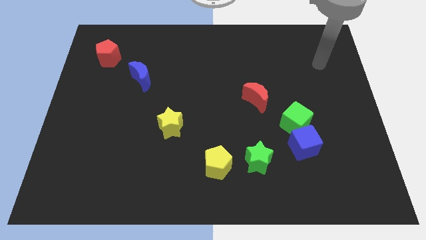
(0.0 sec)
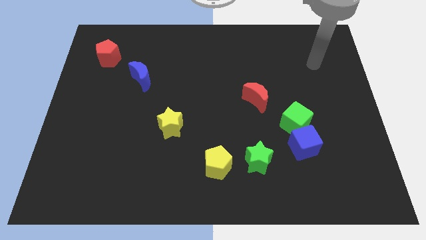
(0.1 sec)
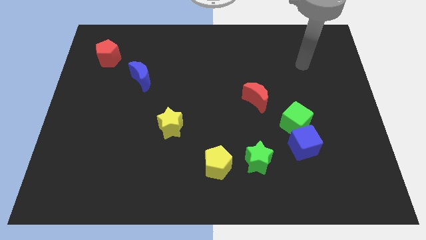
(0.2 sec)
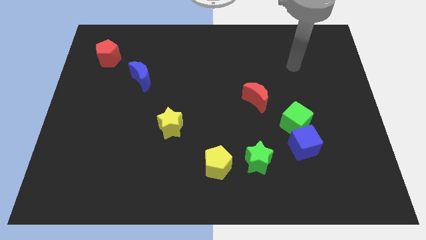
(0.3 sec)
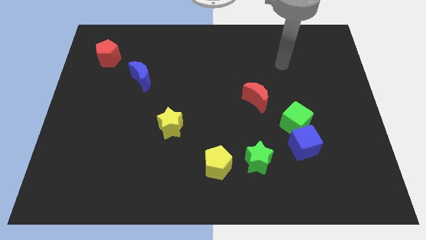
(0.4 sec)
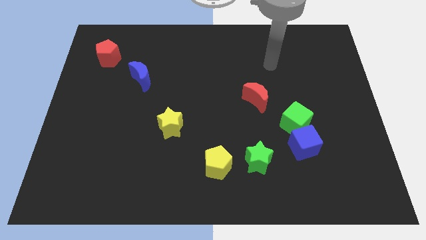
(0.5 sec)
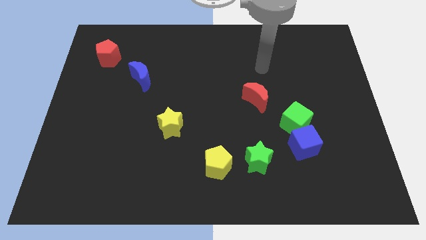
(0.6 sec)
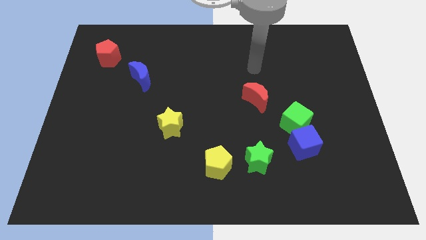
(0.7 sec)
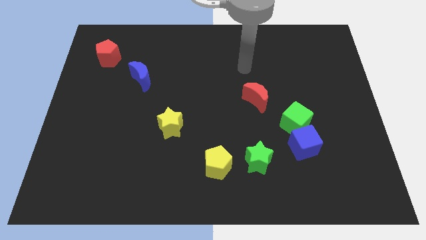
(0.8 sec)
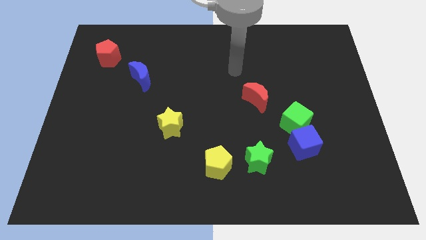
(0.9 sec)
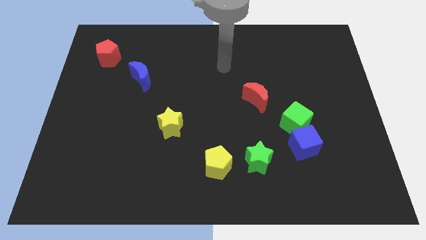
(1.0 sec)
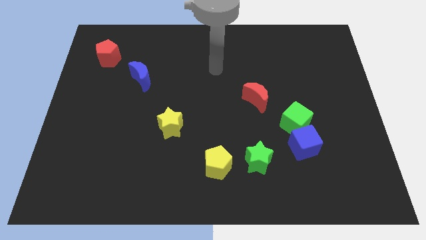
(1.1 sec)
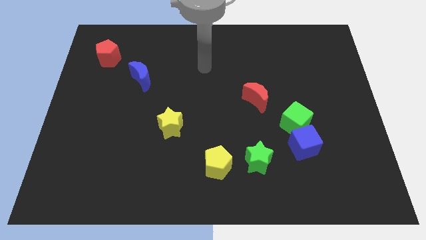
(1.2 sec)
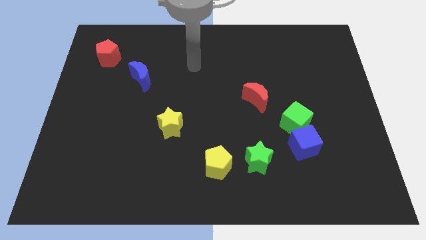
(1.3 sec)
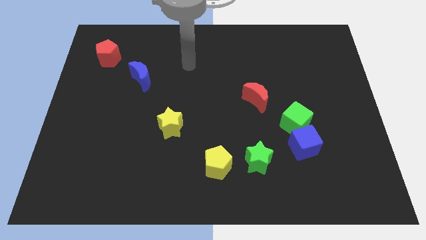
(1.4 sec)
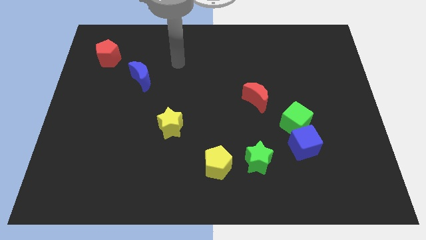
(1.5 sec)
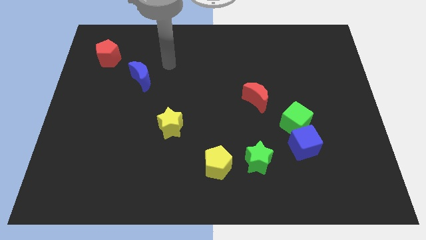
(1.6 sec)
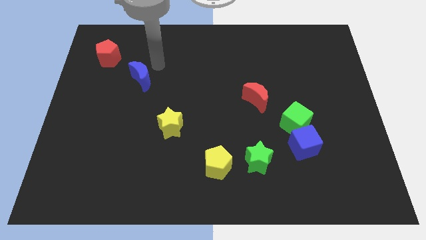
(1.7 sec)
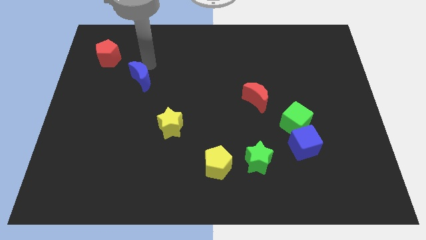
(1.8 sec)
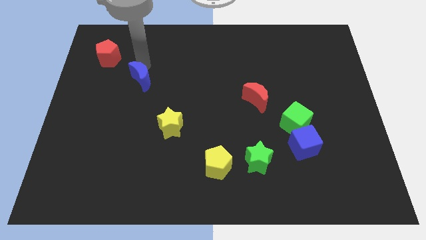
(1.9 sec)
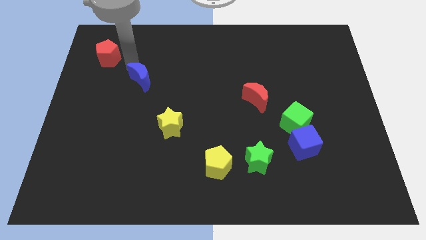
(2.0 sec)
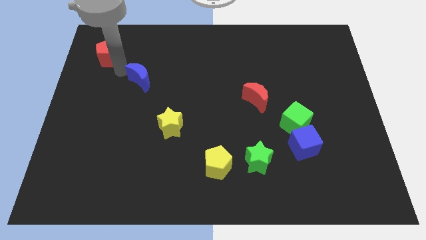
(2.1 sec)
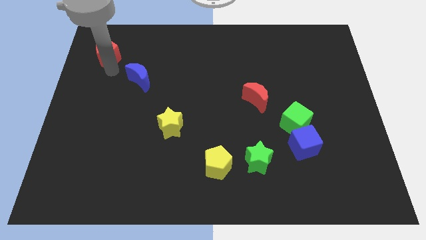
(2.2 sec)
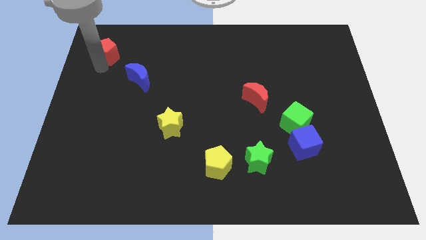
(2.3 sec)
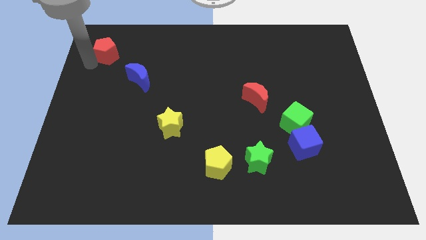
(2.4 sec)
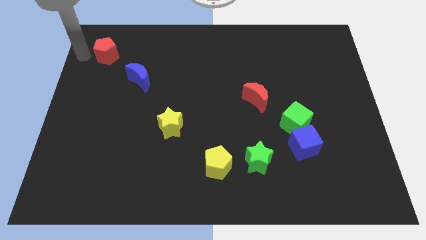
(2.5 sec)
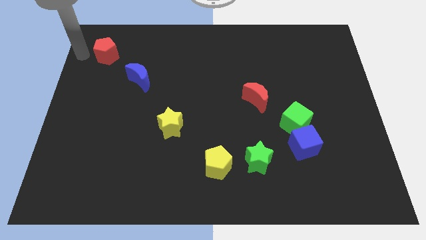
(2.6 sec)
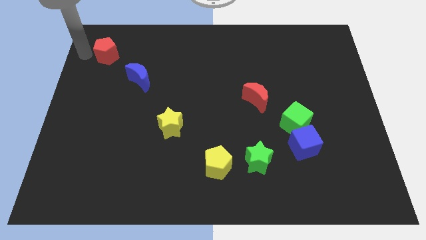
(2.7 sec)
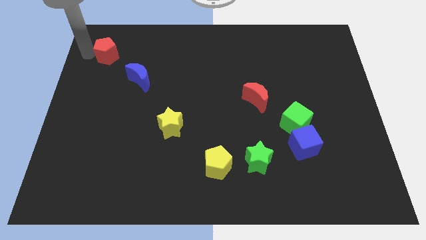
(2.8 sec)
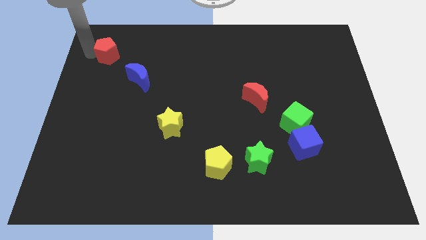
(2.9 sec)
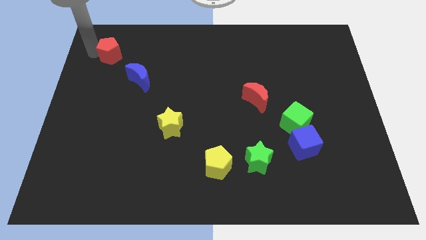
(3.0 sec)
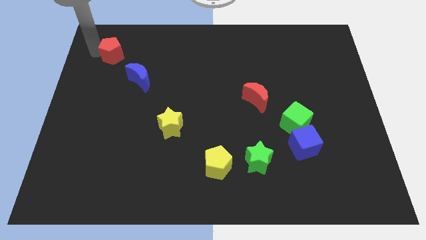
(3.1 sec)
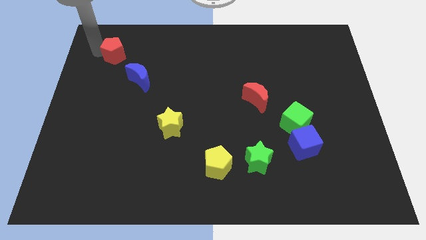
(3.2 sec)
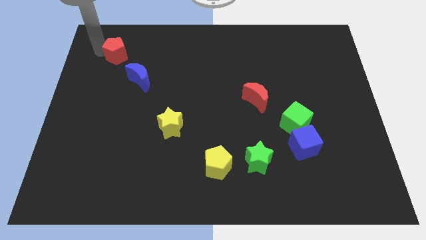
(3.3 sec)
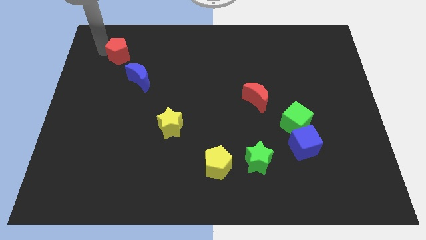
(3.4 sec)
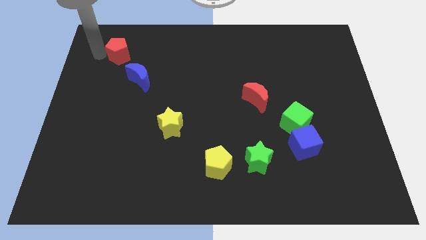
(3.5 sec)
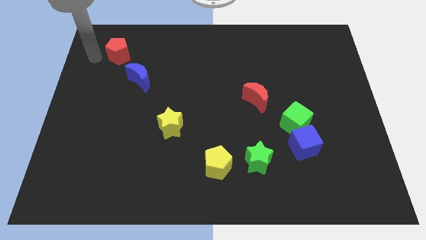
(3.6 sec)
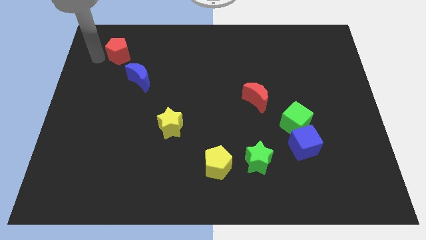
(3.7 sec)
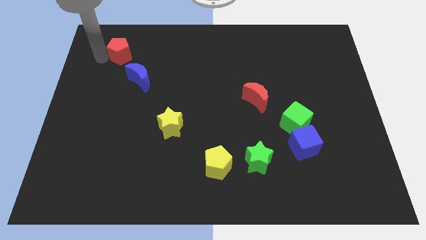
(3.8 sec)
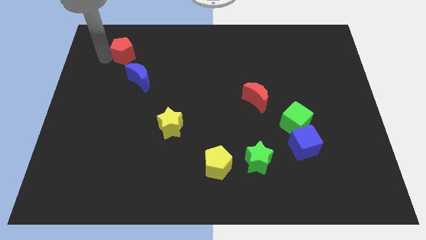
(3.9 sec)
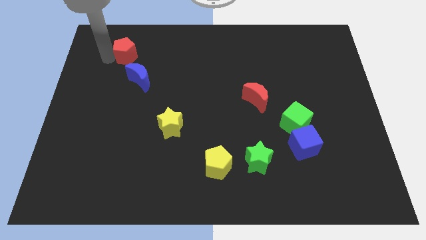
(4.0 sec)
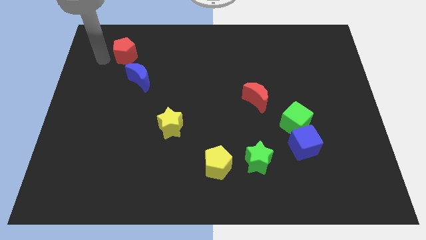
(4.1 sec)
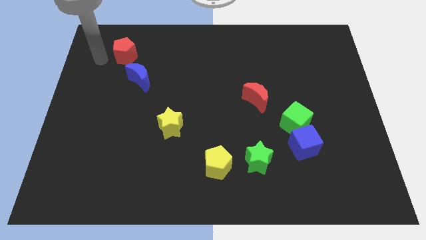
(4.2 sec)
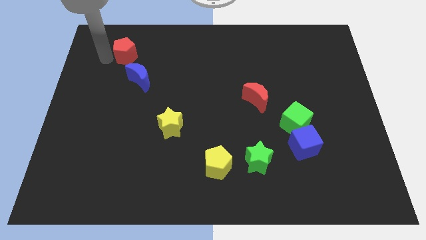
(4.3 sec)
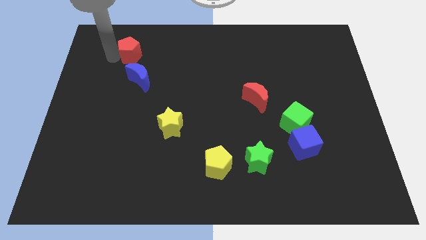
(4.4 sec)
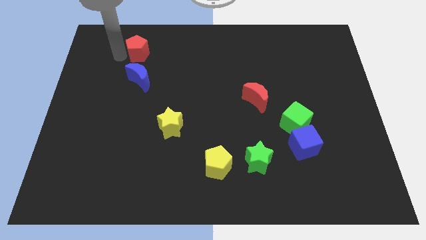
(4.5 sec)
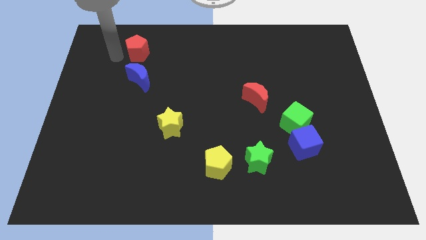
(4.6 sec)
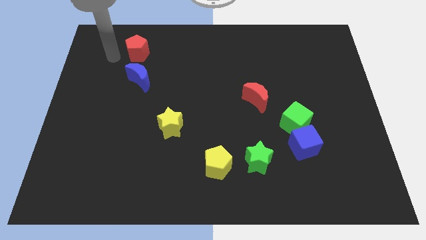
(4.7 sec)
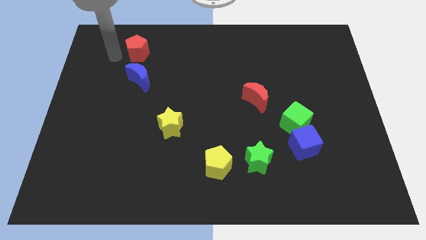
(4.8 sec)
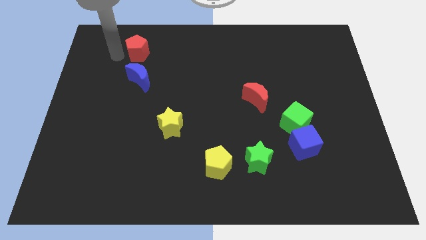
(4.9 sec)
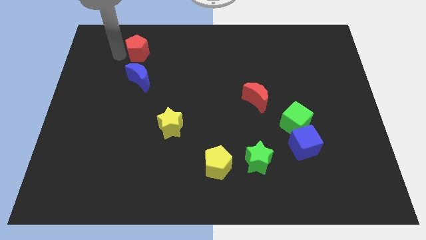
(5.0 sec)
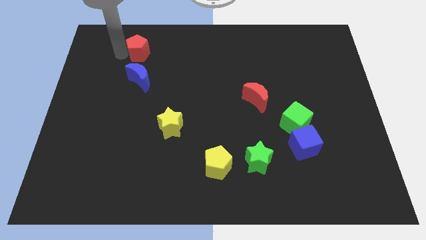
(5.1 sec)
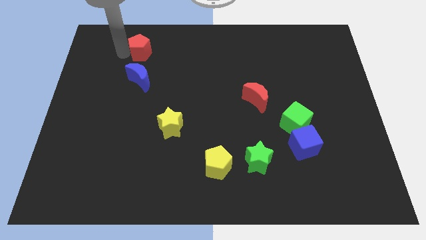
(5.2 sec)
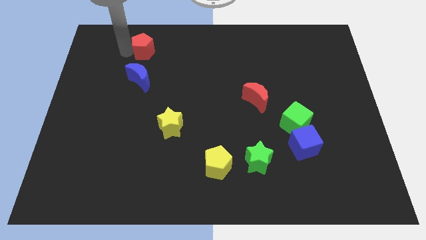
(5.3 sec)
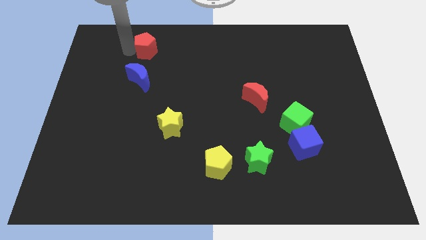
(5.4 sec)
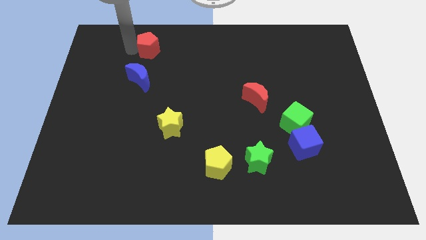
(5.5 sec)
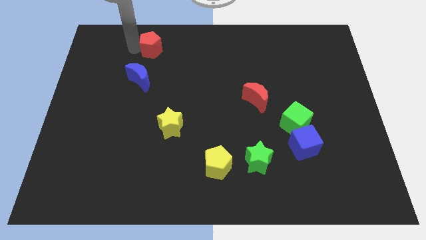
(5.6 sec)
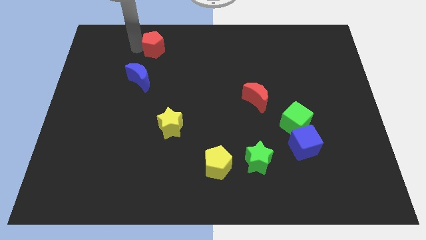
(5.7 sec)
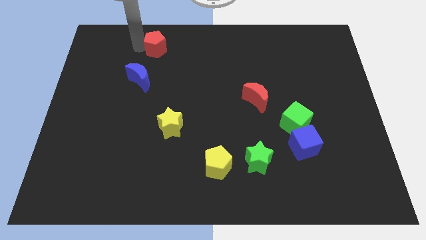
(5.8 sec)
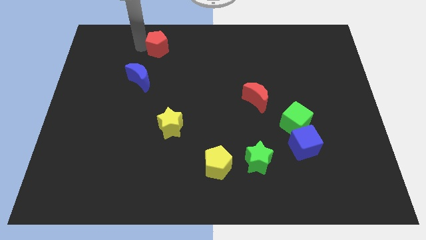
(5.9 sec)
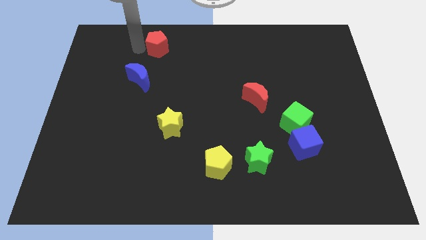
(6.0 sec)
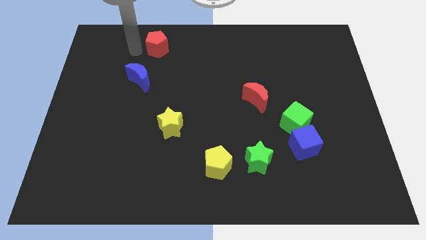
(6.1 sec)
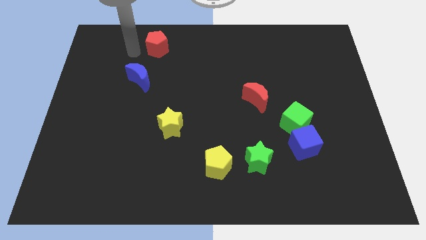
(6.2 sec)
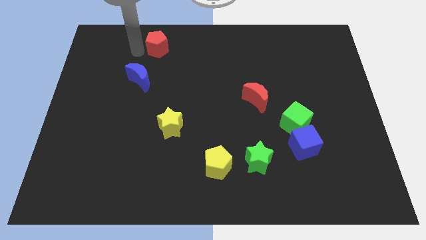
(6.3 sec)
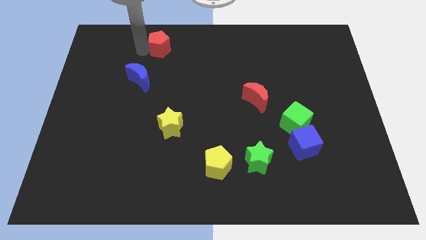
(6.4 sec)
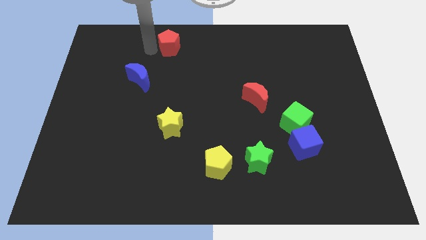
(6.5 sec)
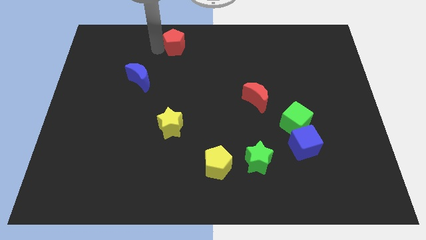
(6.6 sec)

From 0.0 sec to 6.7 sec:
move the red pentagon to the towards your base

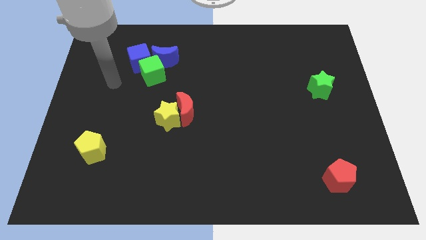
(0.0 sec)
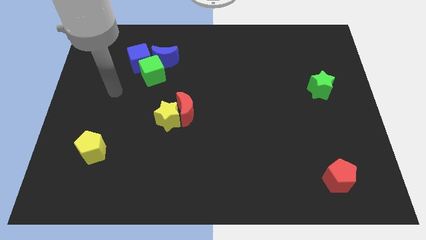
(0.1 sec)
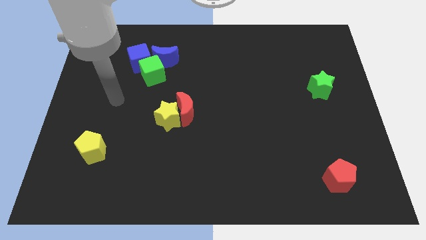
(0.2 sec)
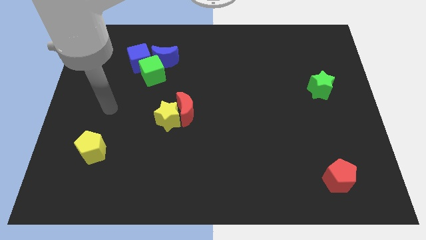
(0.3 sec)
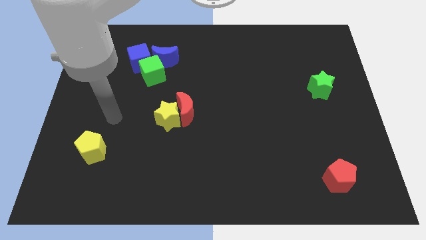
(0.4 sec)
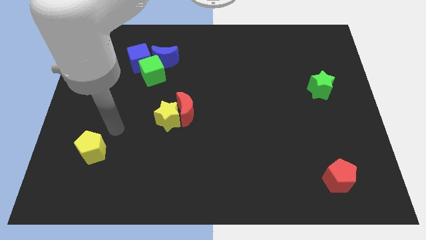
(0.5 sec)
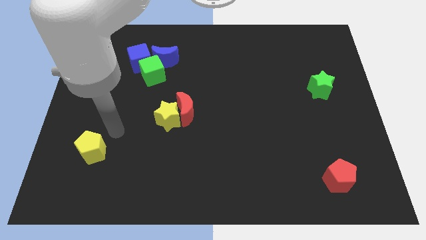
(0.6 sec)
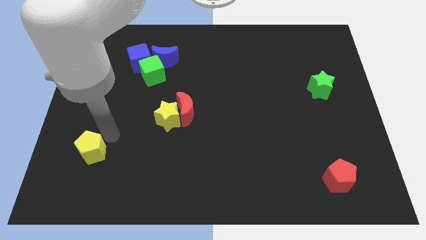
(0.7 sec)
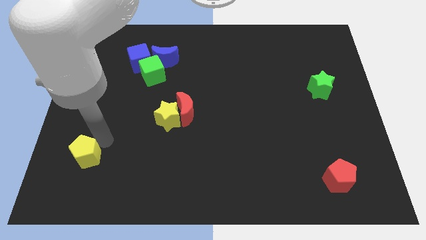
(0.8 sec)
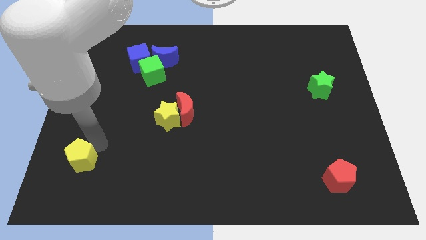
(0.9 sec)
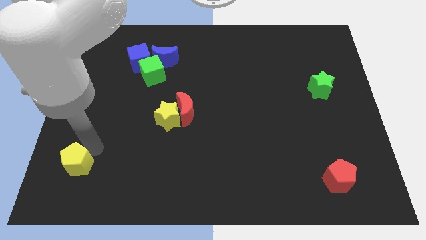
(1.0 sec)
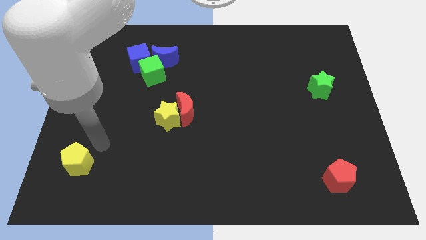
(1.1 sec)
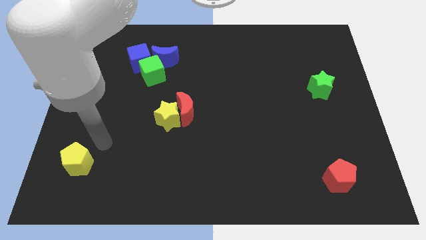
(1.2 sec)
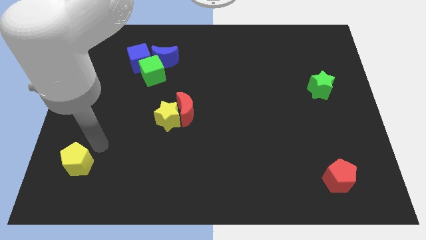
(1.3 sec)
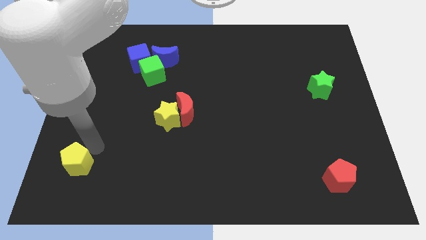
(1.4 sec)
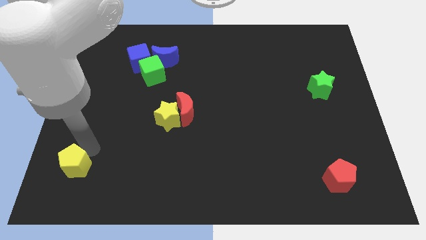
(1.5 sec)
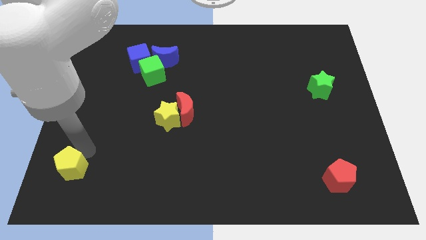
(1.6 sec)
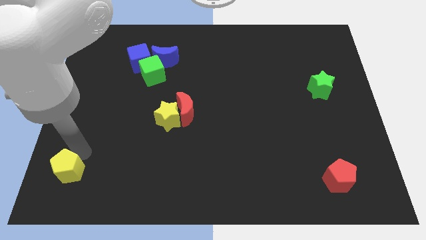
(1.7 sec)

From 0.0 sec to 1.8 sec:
push the yellow pentagon to the lower left corner
